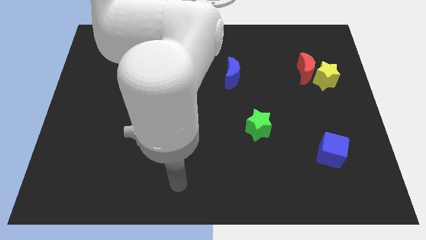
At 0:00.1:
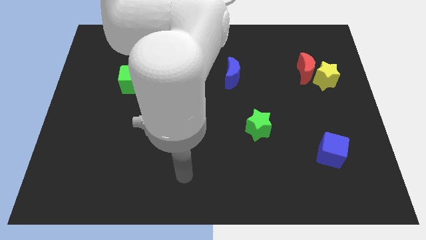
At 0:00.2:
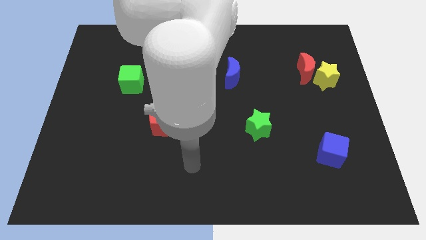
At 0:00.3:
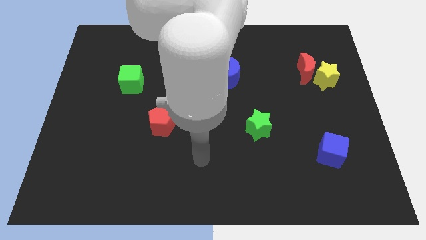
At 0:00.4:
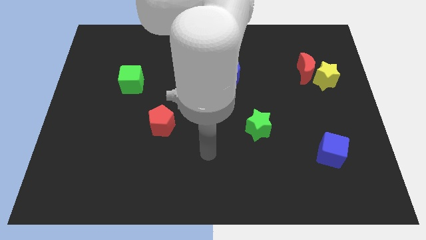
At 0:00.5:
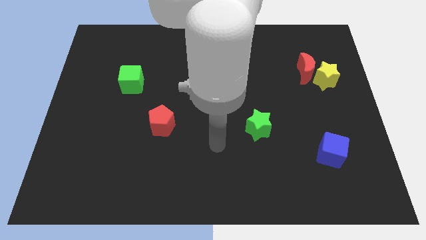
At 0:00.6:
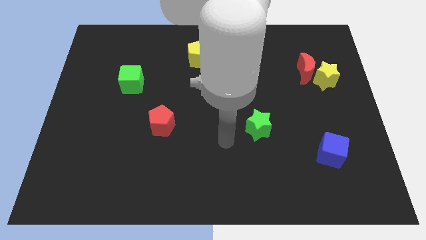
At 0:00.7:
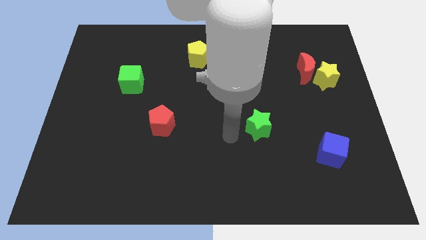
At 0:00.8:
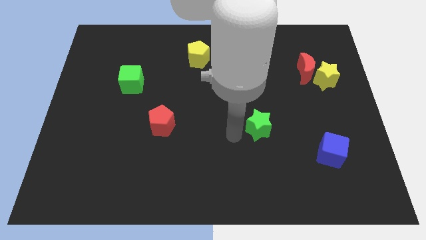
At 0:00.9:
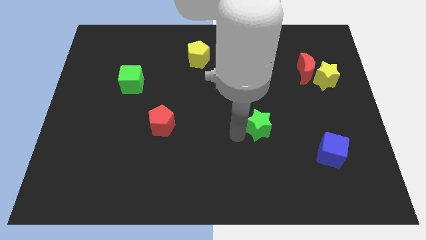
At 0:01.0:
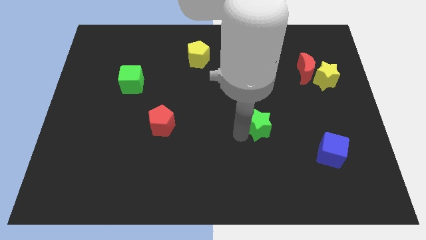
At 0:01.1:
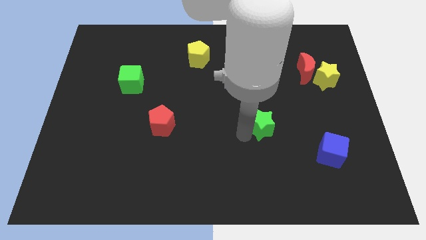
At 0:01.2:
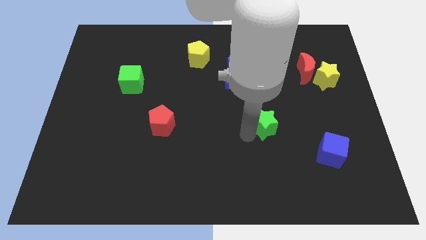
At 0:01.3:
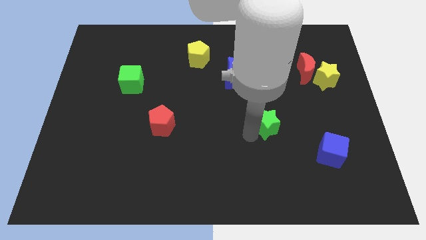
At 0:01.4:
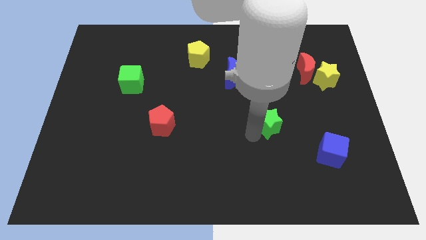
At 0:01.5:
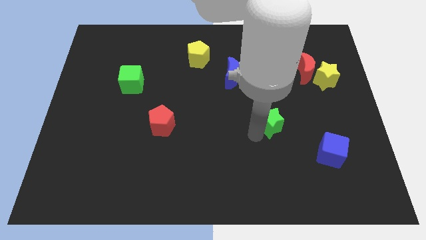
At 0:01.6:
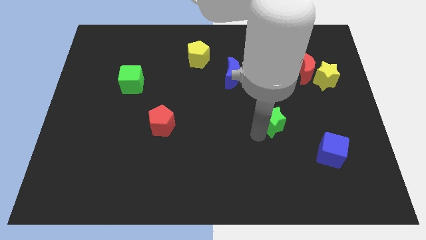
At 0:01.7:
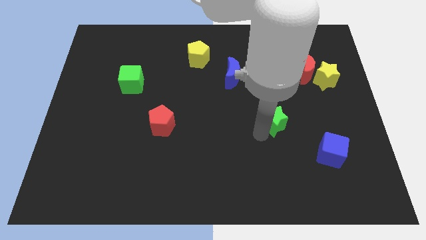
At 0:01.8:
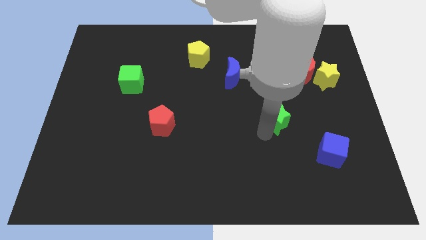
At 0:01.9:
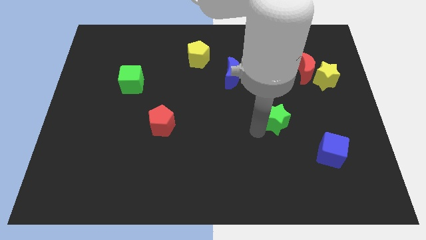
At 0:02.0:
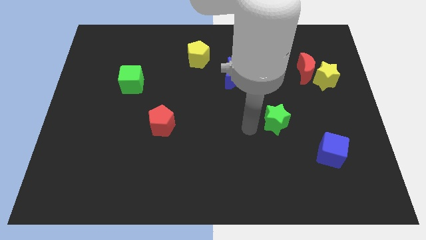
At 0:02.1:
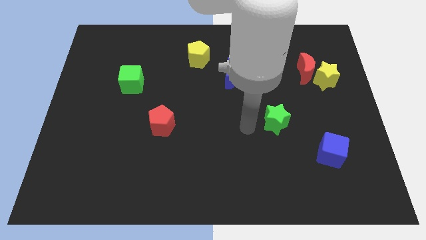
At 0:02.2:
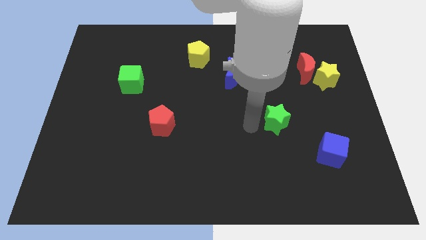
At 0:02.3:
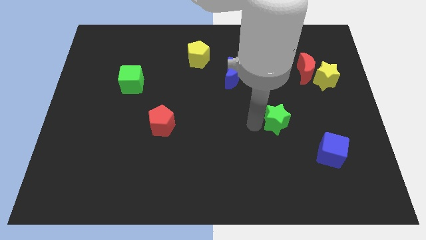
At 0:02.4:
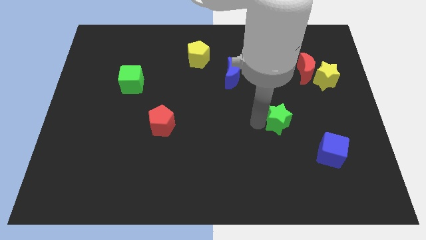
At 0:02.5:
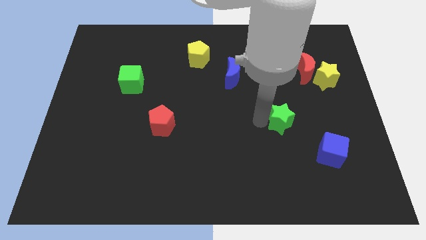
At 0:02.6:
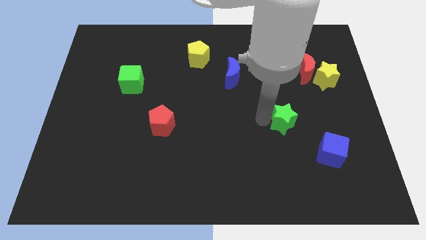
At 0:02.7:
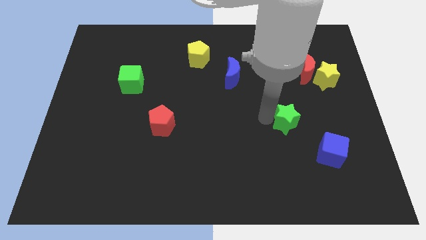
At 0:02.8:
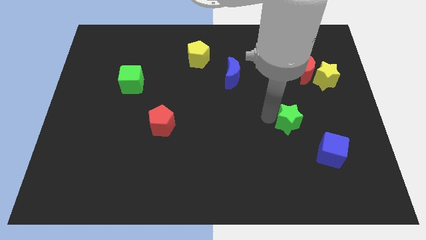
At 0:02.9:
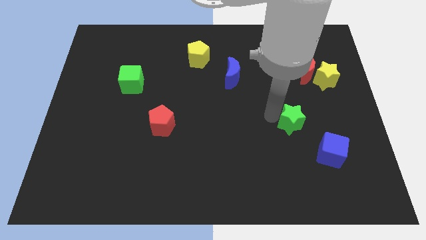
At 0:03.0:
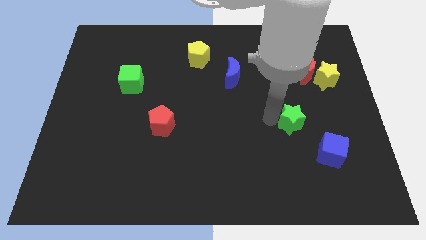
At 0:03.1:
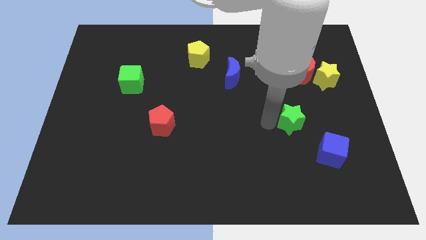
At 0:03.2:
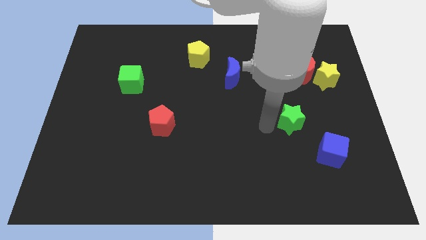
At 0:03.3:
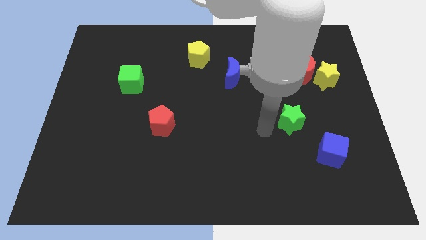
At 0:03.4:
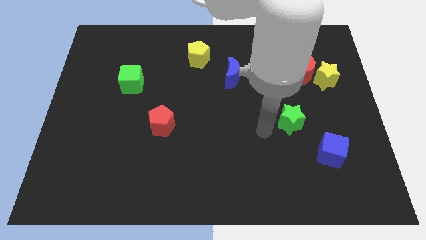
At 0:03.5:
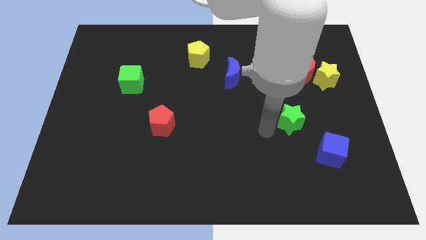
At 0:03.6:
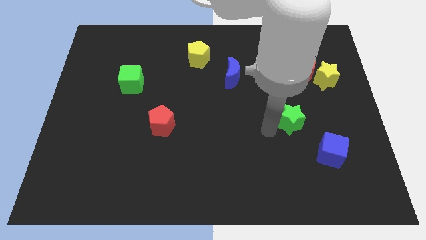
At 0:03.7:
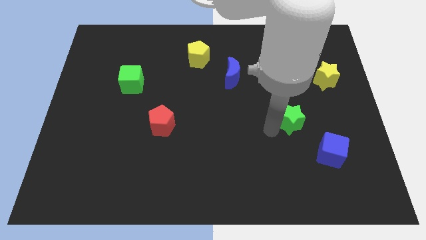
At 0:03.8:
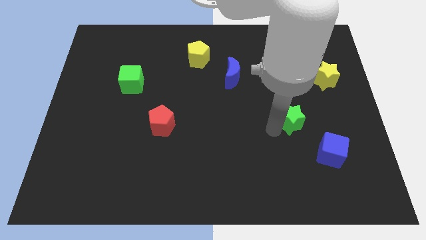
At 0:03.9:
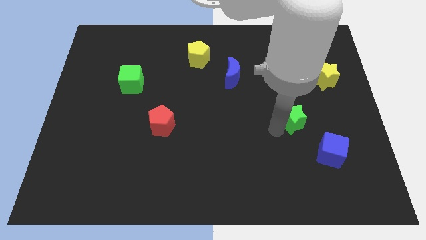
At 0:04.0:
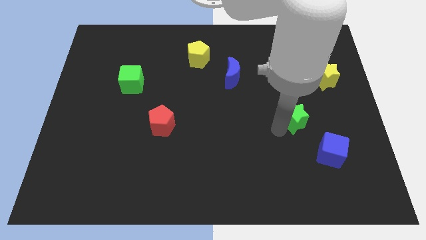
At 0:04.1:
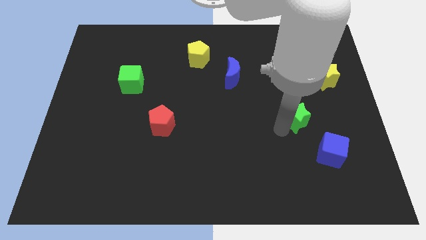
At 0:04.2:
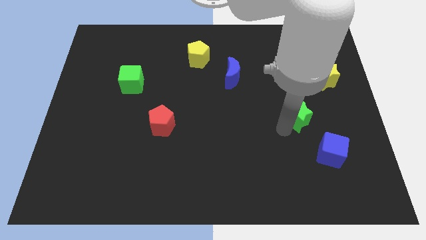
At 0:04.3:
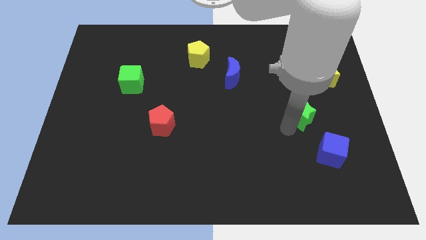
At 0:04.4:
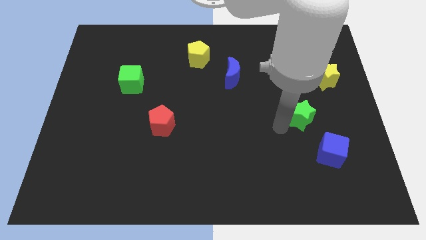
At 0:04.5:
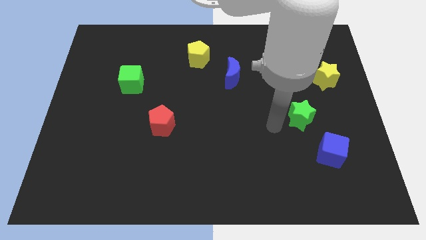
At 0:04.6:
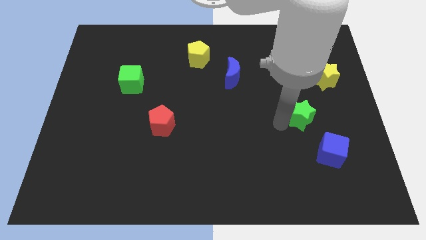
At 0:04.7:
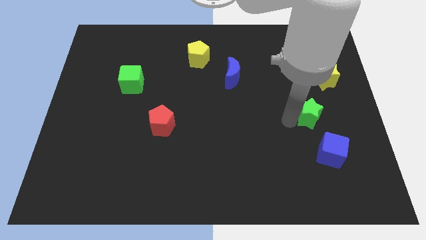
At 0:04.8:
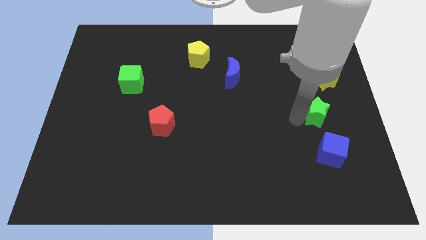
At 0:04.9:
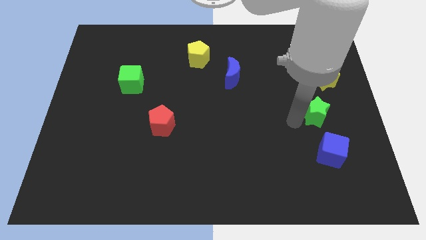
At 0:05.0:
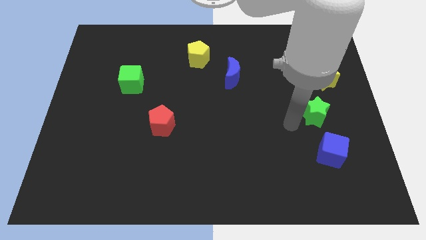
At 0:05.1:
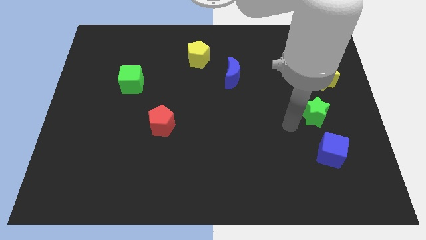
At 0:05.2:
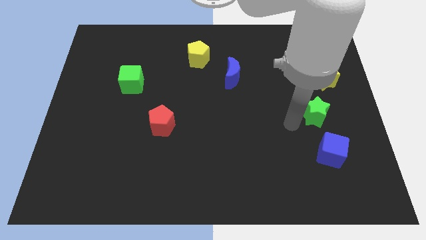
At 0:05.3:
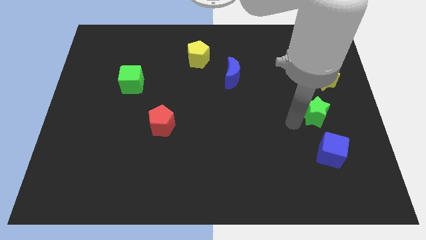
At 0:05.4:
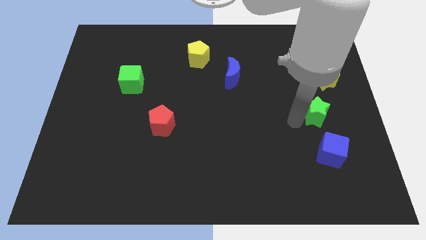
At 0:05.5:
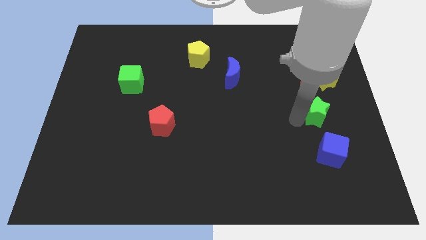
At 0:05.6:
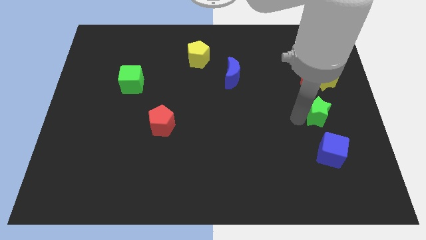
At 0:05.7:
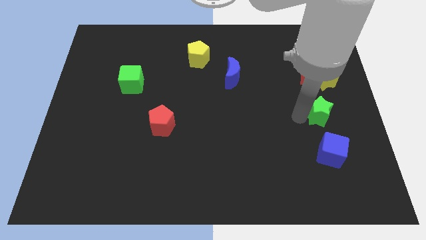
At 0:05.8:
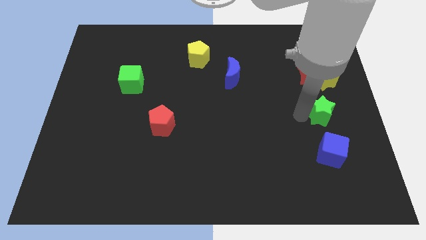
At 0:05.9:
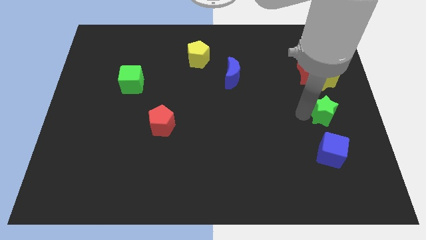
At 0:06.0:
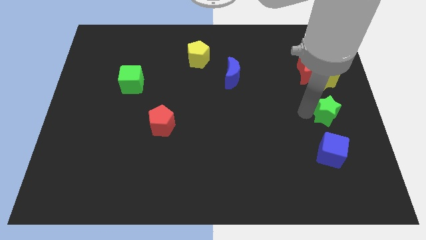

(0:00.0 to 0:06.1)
move the green star to the center right
